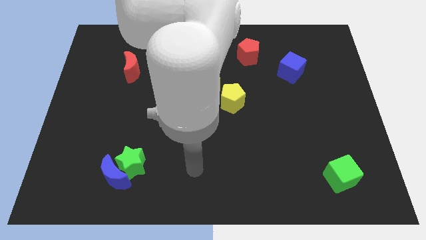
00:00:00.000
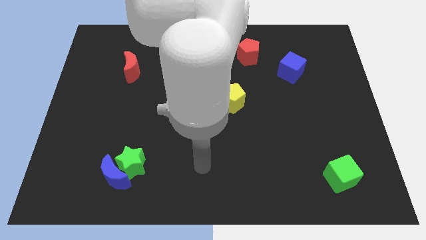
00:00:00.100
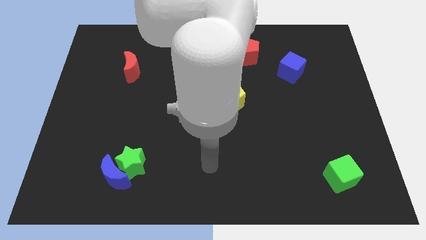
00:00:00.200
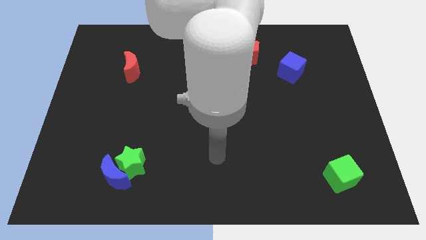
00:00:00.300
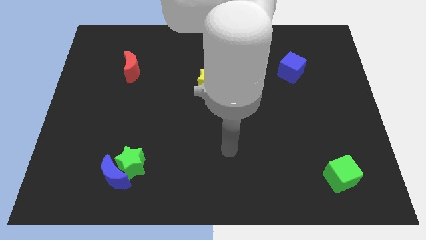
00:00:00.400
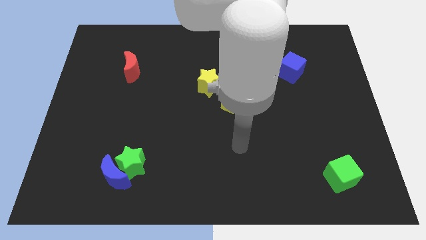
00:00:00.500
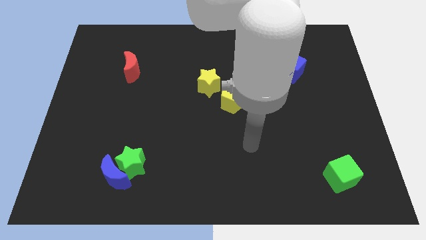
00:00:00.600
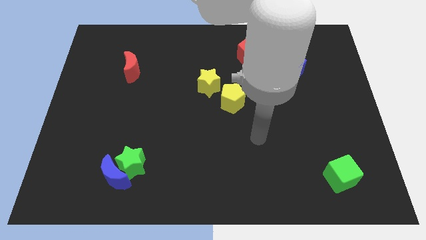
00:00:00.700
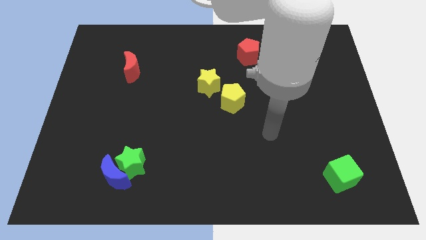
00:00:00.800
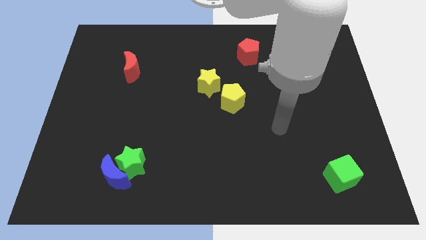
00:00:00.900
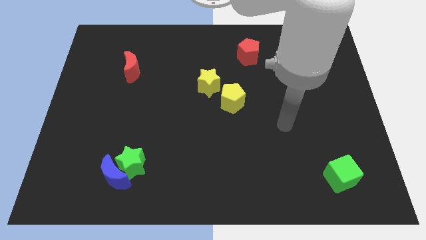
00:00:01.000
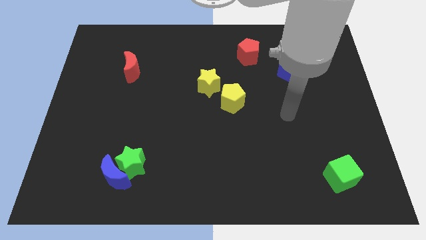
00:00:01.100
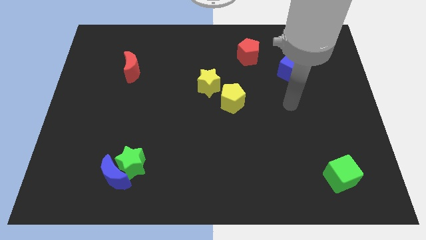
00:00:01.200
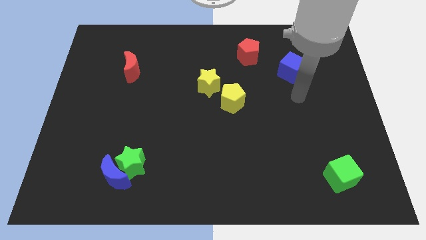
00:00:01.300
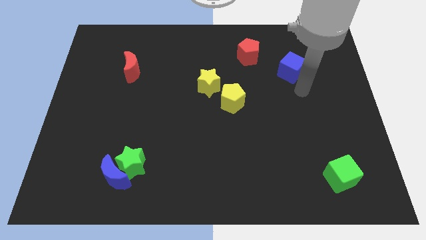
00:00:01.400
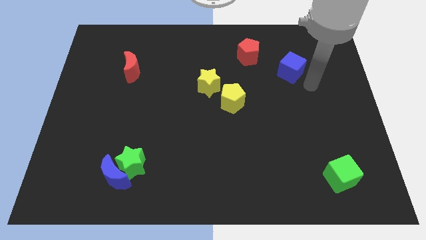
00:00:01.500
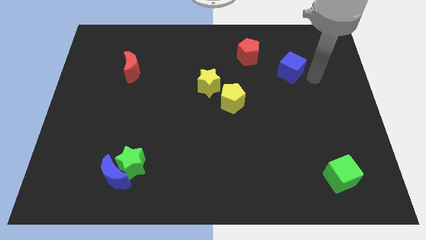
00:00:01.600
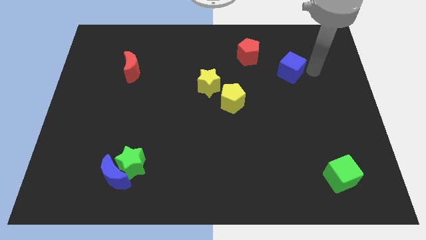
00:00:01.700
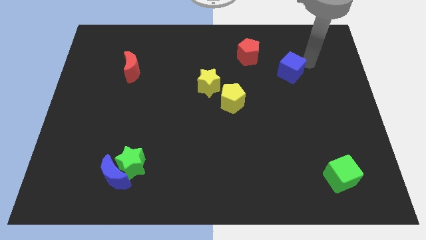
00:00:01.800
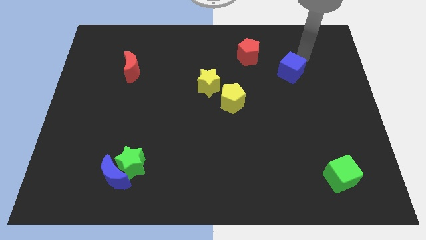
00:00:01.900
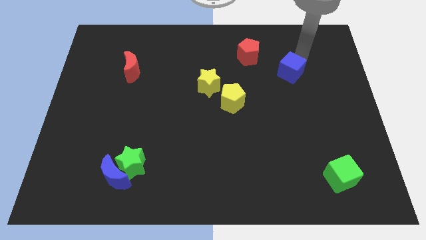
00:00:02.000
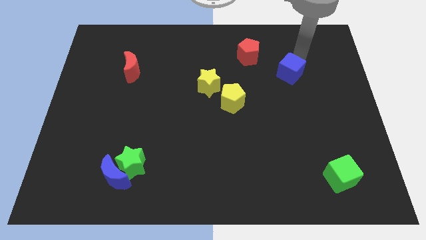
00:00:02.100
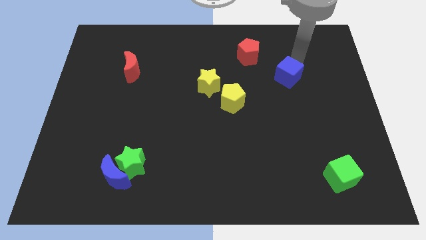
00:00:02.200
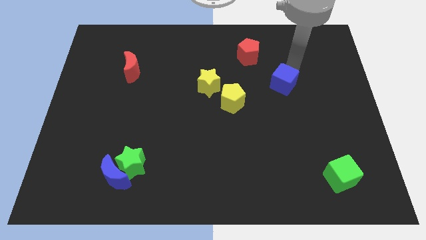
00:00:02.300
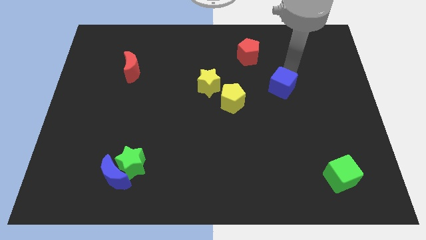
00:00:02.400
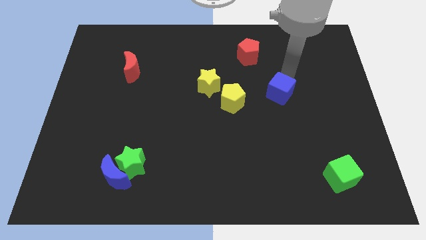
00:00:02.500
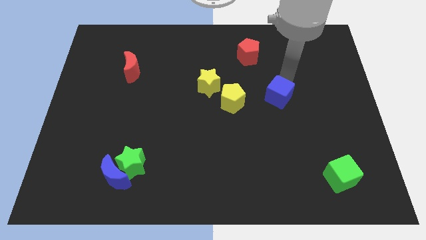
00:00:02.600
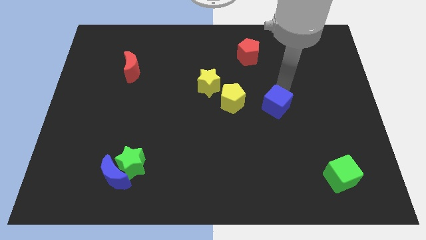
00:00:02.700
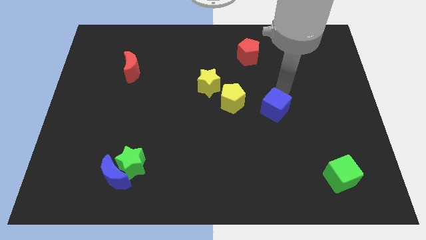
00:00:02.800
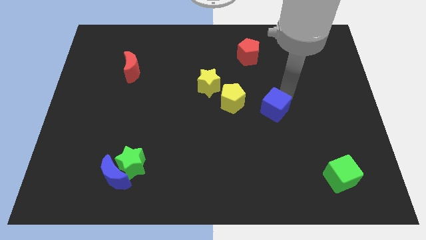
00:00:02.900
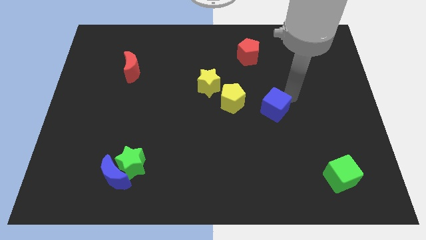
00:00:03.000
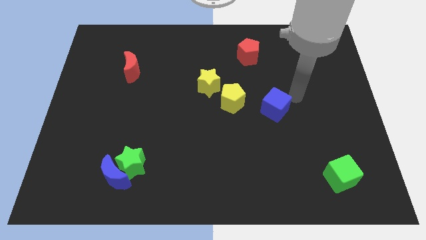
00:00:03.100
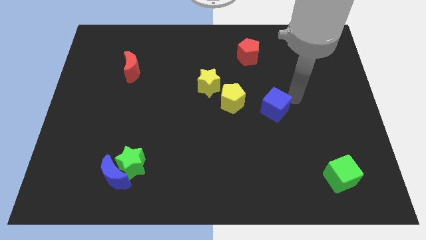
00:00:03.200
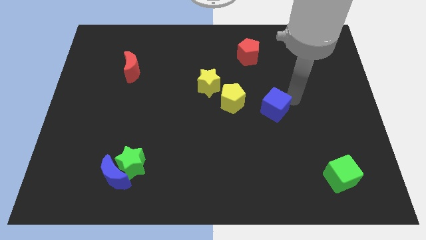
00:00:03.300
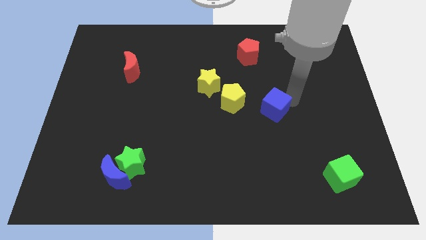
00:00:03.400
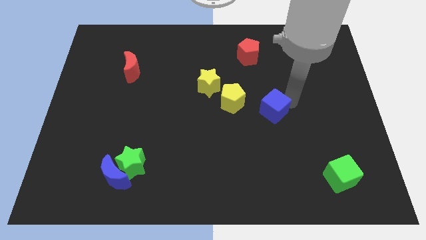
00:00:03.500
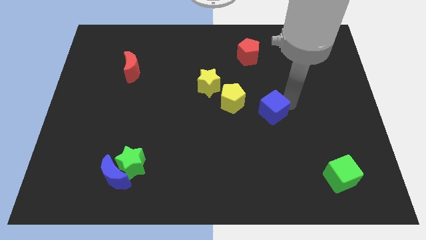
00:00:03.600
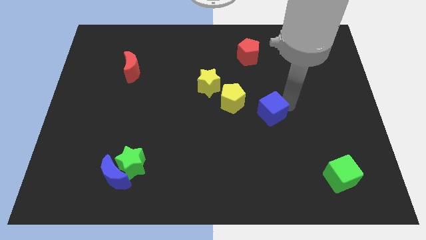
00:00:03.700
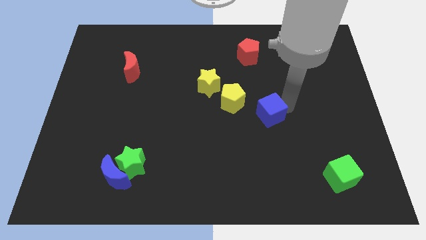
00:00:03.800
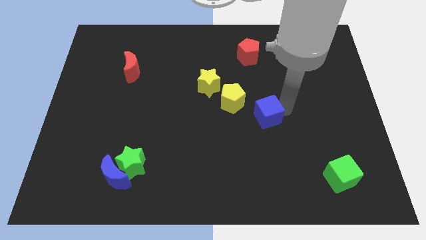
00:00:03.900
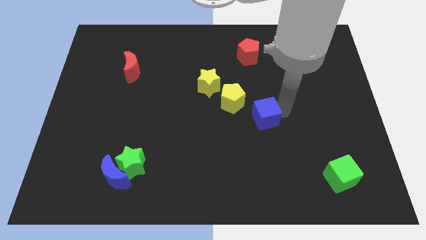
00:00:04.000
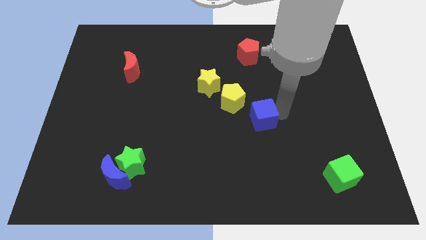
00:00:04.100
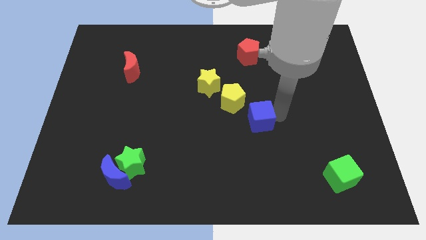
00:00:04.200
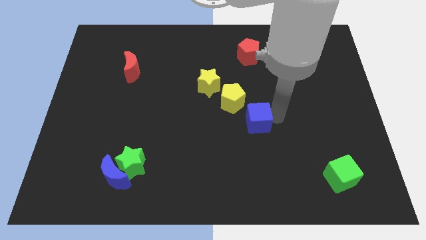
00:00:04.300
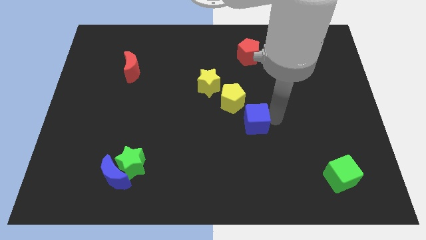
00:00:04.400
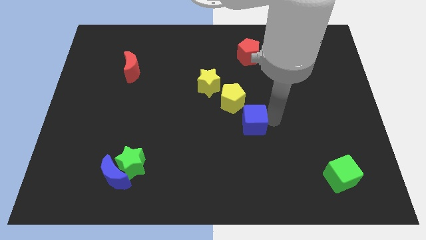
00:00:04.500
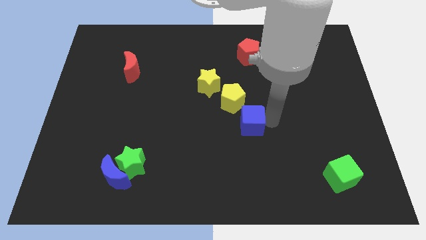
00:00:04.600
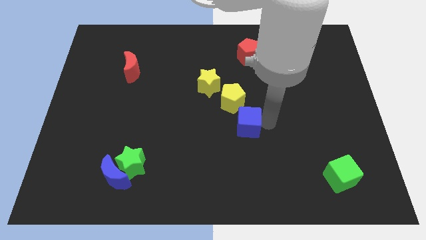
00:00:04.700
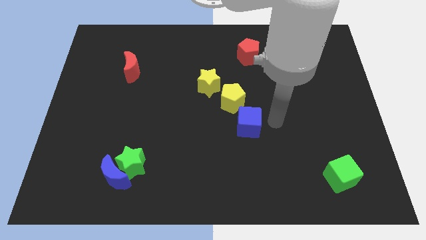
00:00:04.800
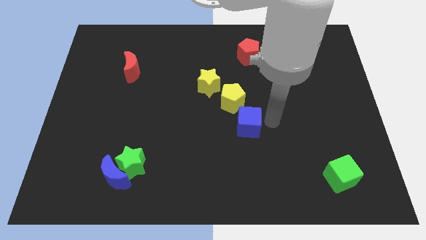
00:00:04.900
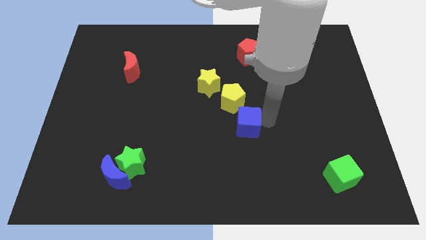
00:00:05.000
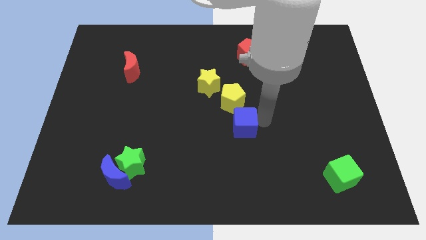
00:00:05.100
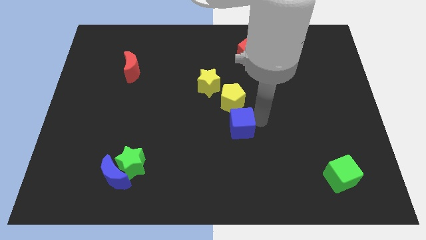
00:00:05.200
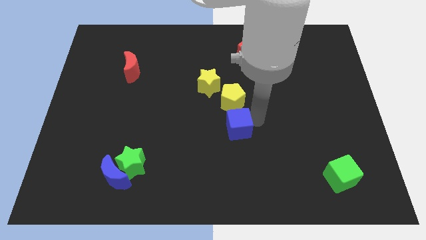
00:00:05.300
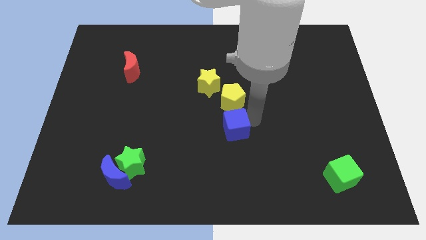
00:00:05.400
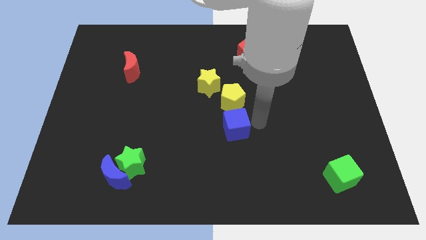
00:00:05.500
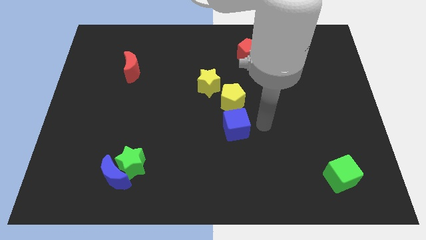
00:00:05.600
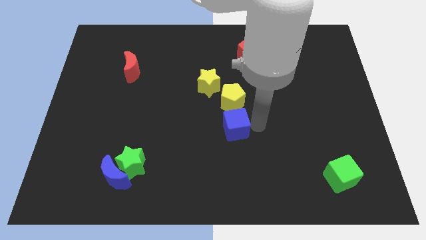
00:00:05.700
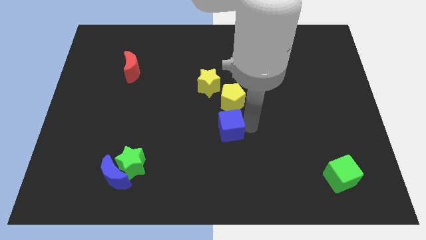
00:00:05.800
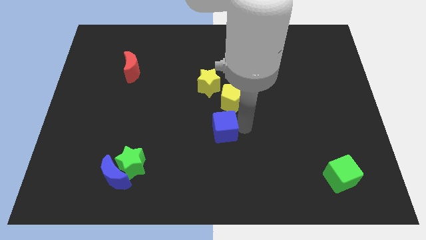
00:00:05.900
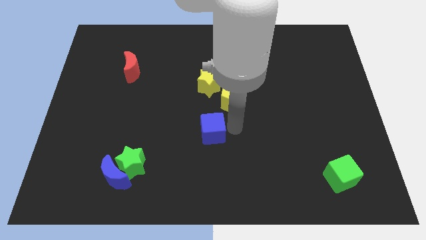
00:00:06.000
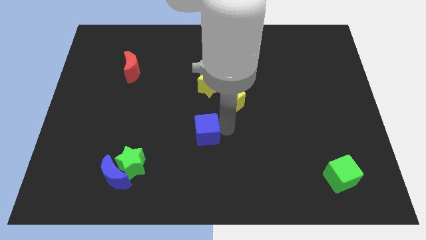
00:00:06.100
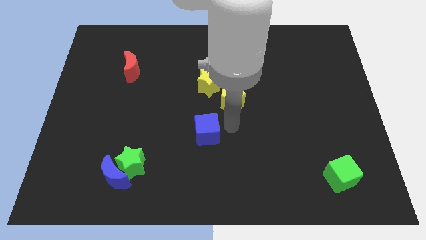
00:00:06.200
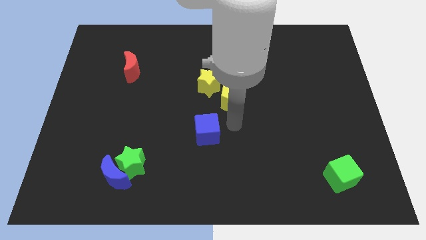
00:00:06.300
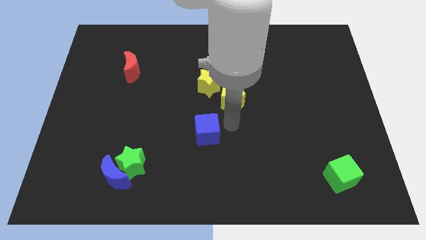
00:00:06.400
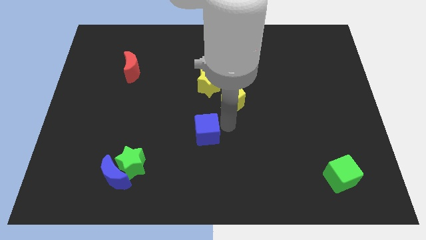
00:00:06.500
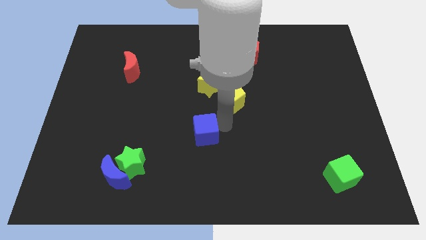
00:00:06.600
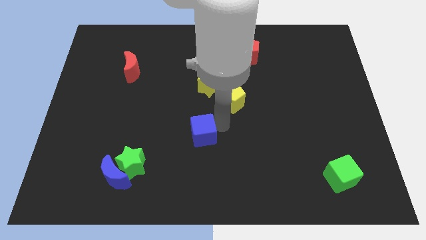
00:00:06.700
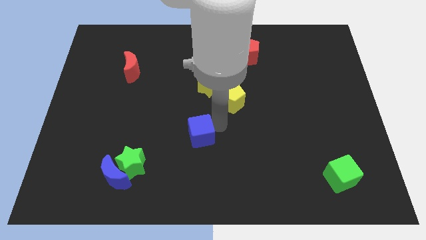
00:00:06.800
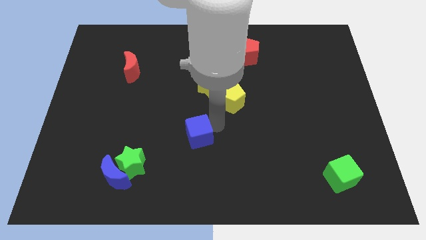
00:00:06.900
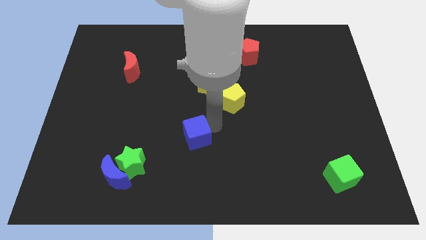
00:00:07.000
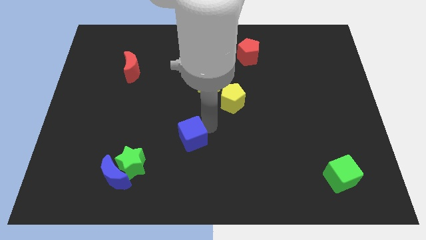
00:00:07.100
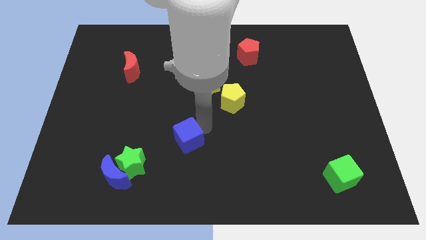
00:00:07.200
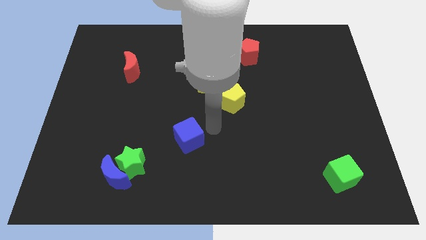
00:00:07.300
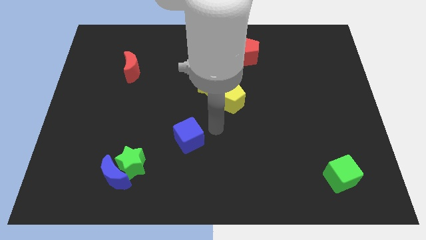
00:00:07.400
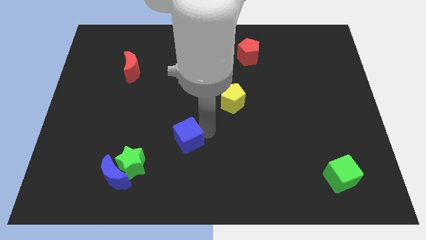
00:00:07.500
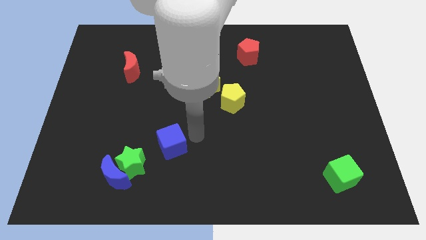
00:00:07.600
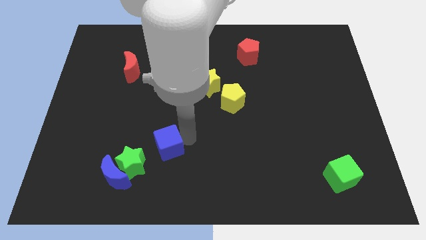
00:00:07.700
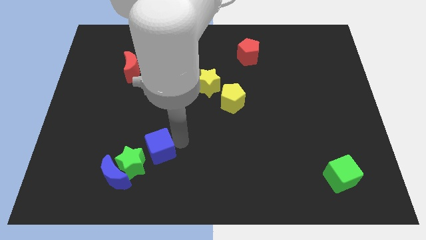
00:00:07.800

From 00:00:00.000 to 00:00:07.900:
push the blue cube diagonally up and to the right of the blue moon
